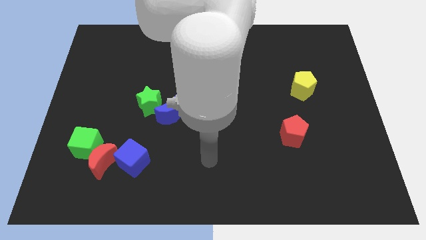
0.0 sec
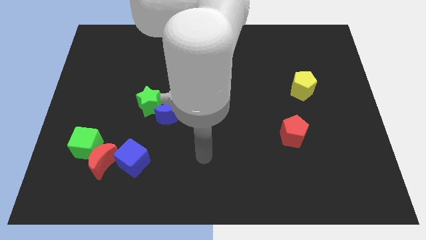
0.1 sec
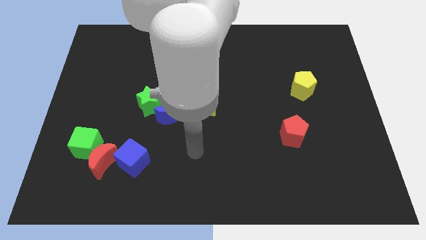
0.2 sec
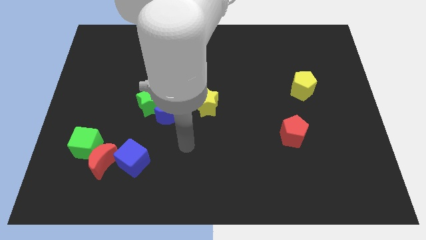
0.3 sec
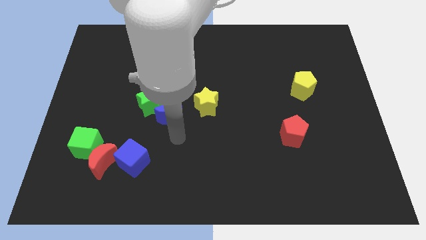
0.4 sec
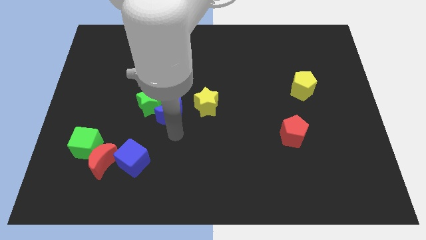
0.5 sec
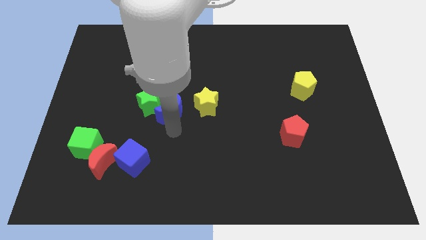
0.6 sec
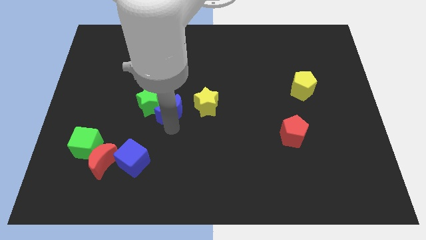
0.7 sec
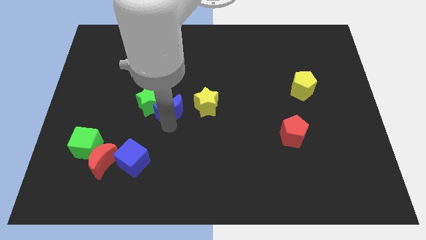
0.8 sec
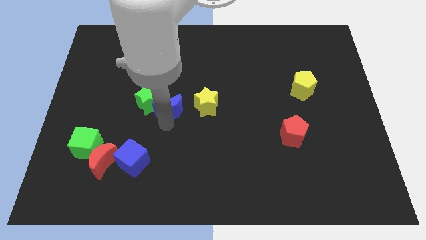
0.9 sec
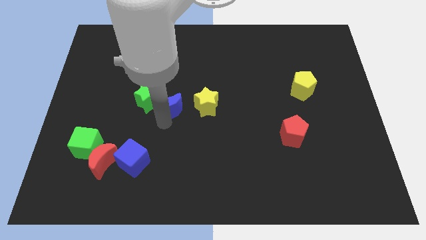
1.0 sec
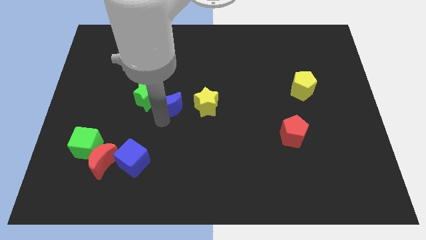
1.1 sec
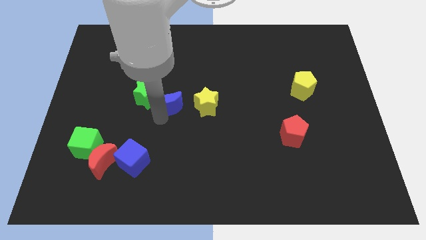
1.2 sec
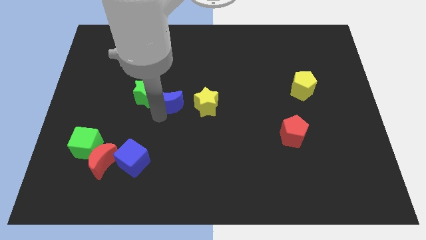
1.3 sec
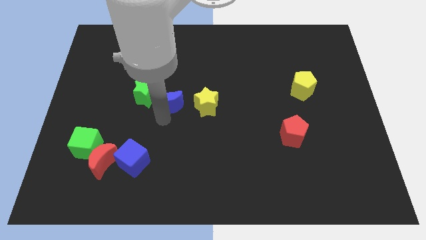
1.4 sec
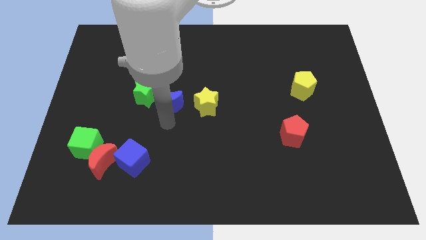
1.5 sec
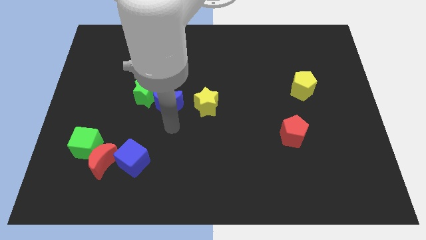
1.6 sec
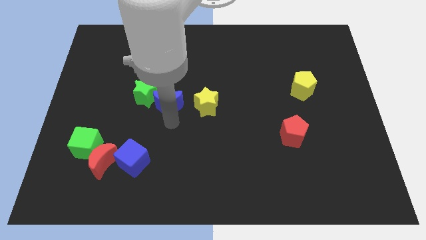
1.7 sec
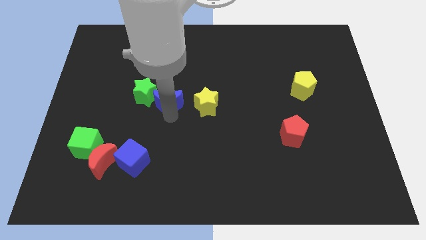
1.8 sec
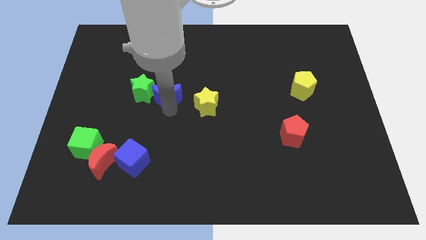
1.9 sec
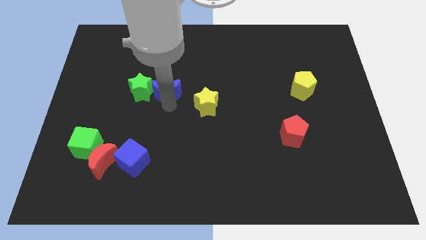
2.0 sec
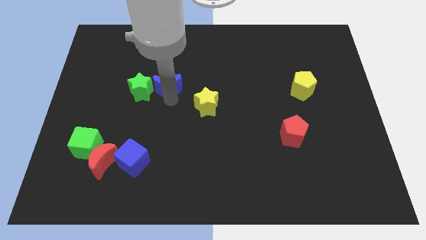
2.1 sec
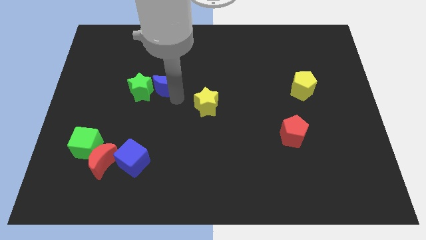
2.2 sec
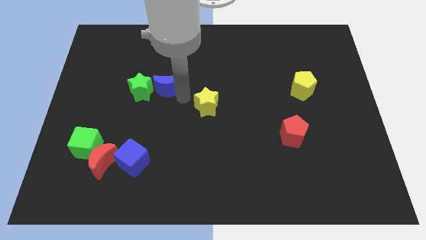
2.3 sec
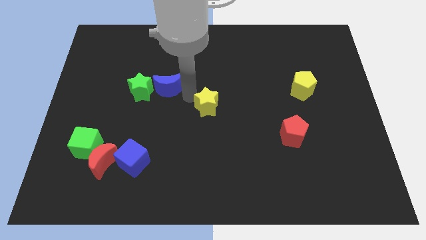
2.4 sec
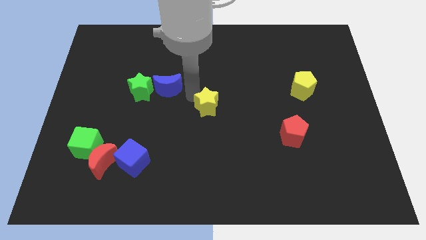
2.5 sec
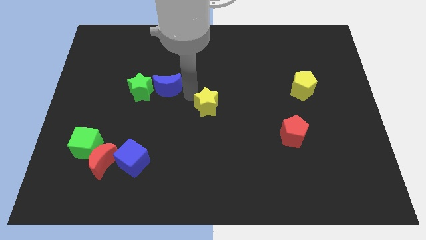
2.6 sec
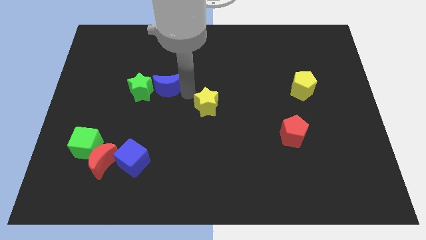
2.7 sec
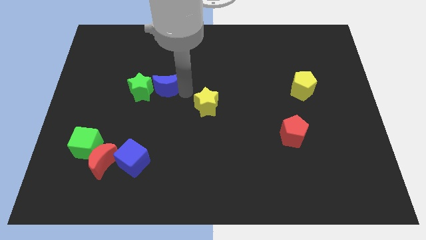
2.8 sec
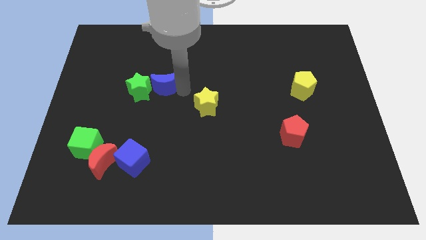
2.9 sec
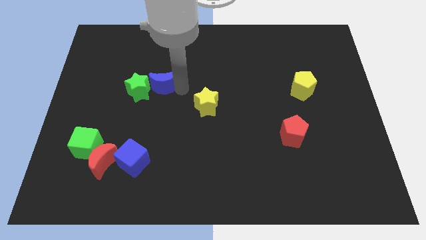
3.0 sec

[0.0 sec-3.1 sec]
move the blue moon a bit upwards and then left

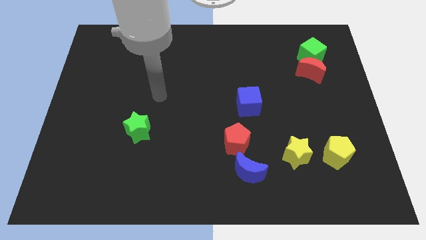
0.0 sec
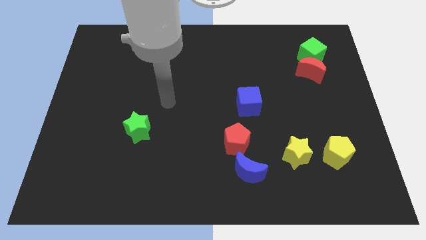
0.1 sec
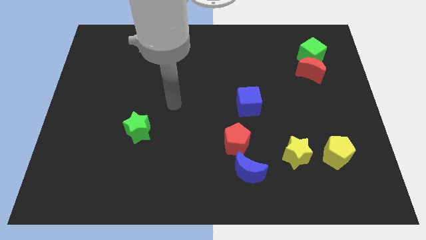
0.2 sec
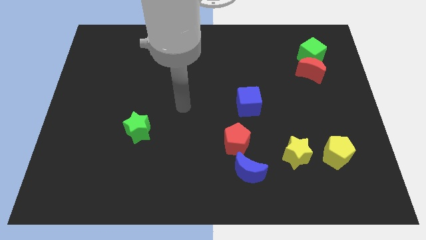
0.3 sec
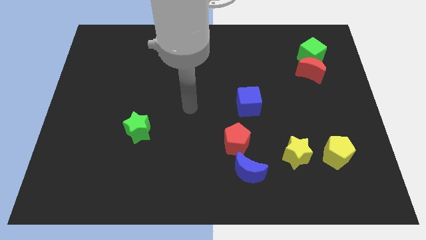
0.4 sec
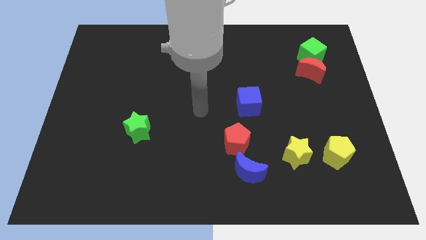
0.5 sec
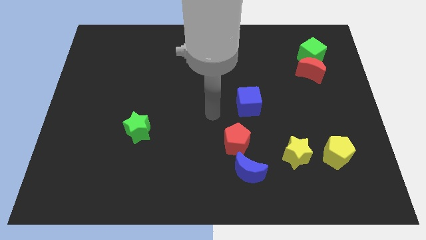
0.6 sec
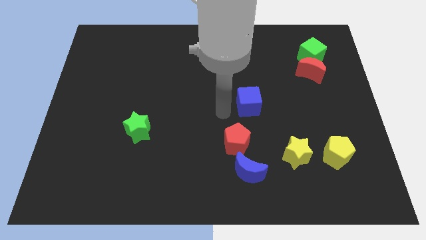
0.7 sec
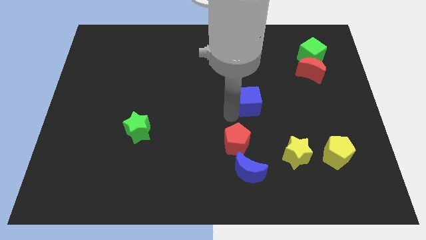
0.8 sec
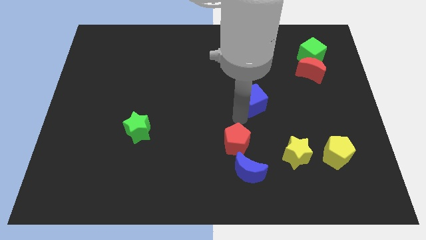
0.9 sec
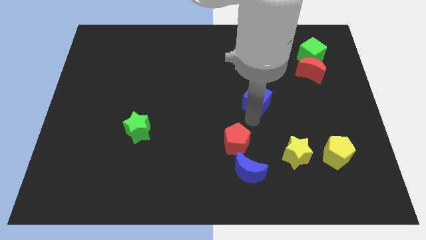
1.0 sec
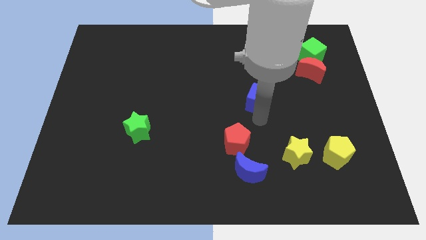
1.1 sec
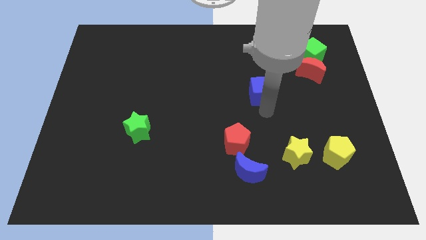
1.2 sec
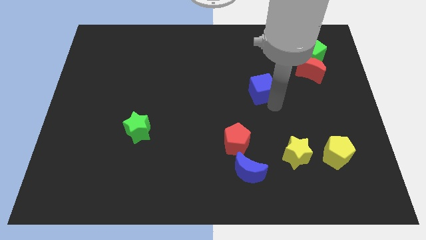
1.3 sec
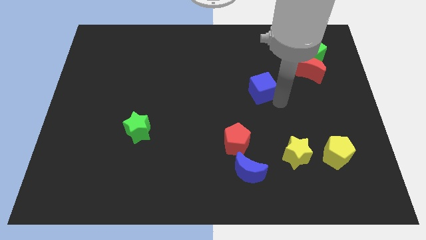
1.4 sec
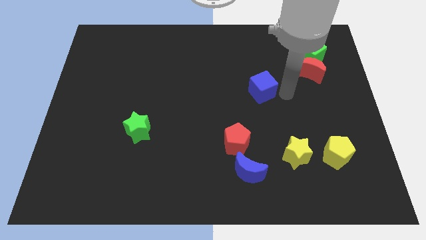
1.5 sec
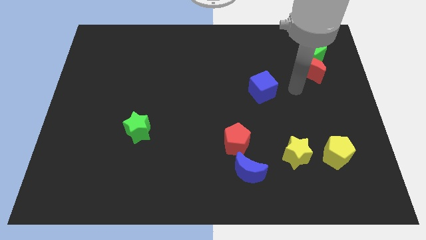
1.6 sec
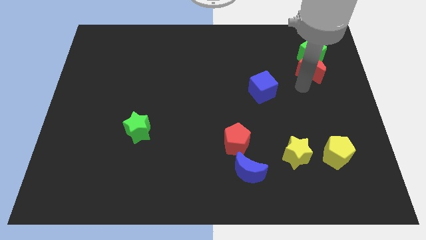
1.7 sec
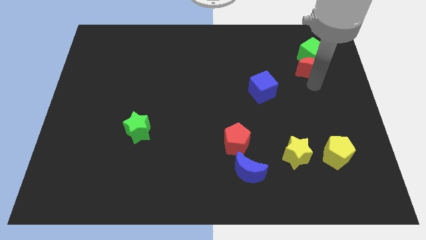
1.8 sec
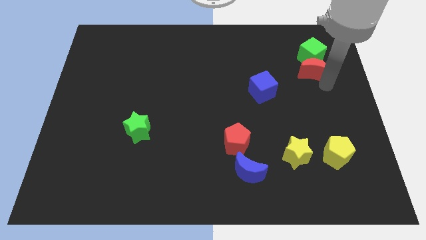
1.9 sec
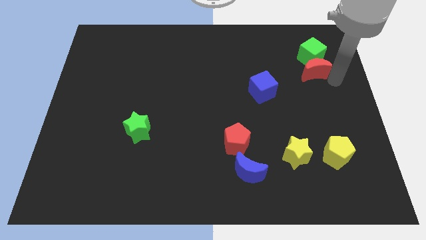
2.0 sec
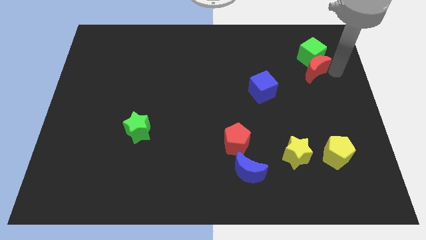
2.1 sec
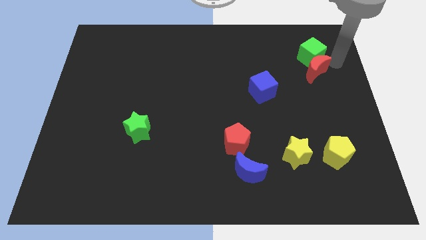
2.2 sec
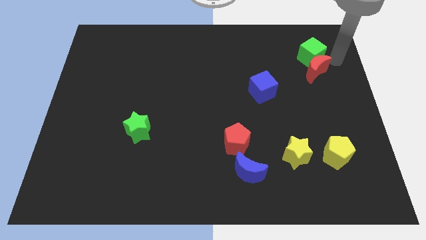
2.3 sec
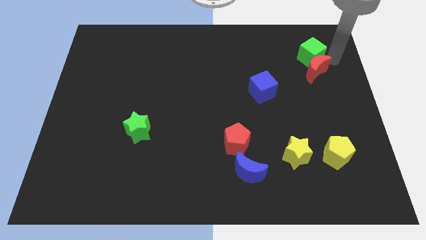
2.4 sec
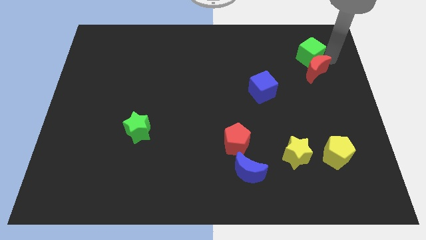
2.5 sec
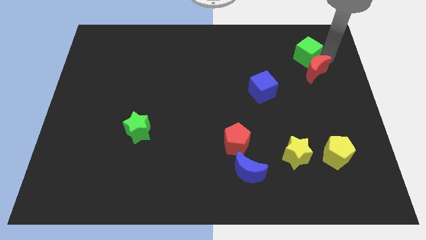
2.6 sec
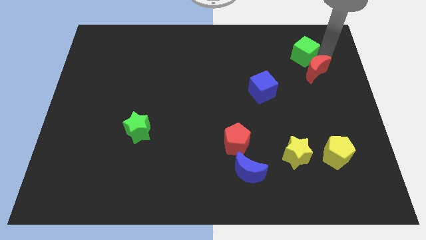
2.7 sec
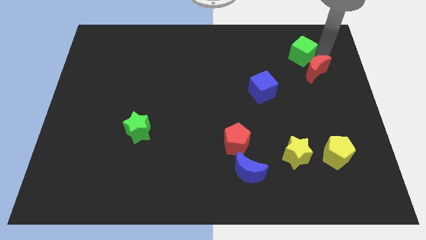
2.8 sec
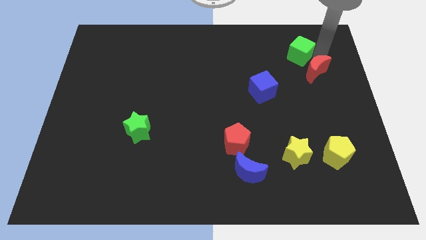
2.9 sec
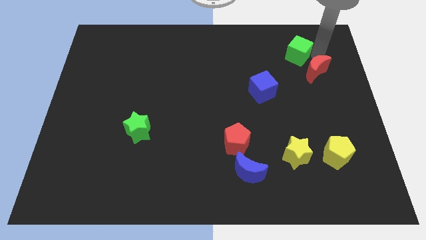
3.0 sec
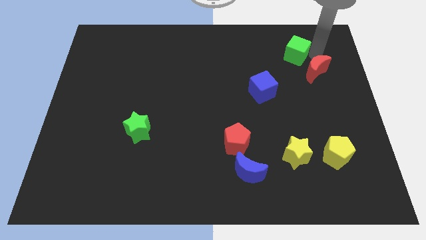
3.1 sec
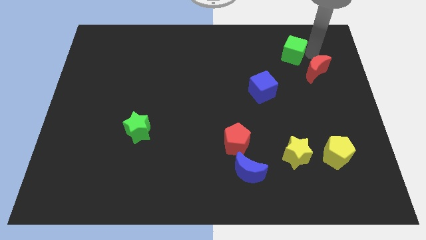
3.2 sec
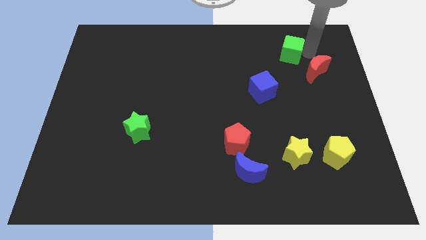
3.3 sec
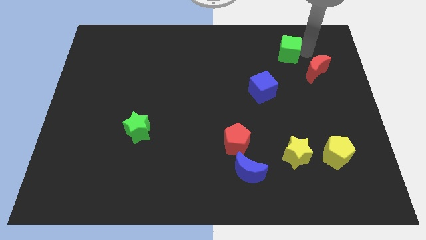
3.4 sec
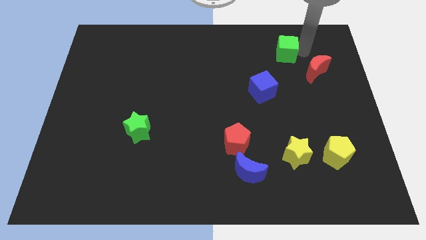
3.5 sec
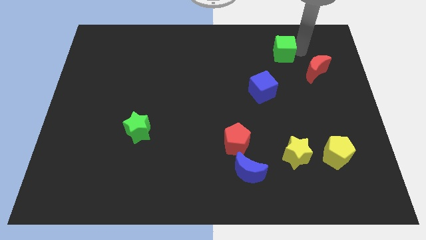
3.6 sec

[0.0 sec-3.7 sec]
move the green cube slightly left

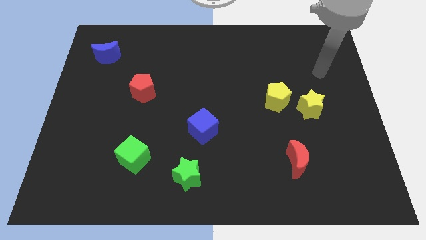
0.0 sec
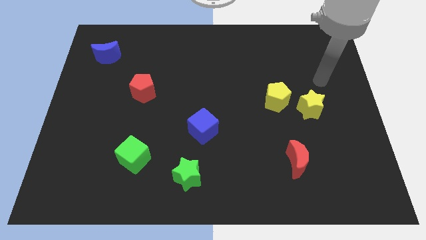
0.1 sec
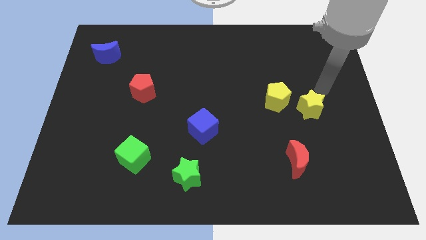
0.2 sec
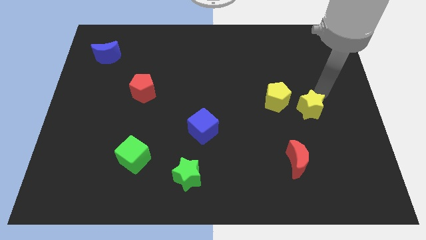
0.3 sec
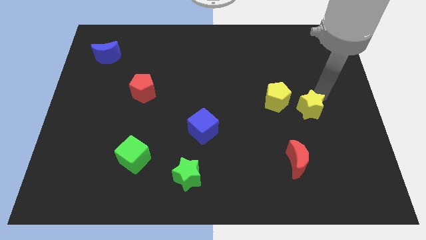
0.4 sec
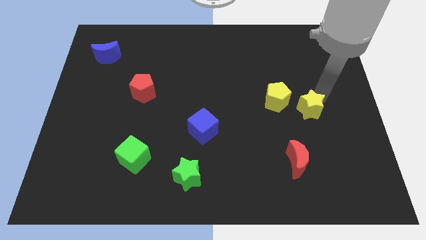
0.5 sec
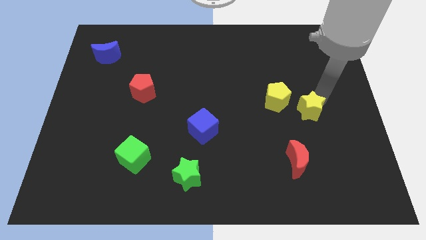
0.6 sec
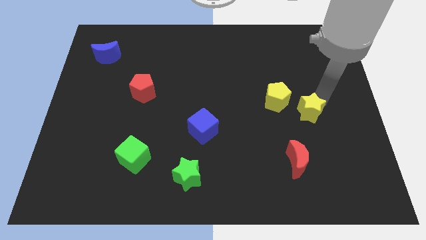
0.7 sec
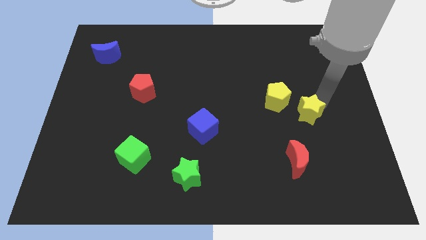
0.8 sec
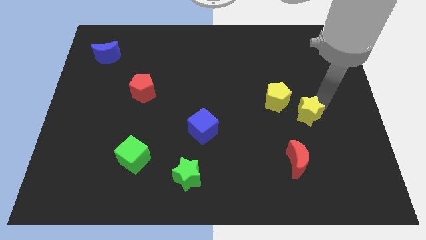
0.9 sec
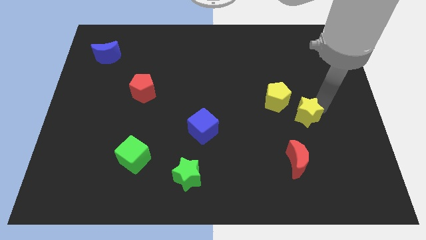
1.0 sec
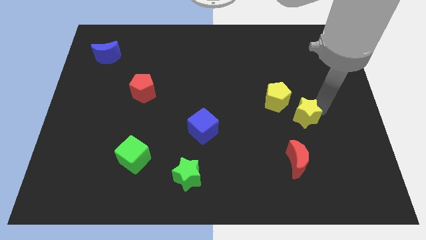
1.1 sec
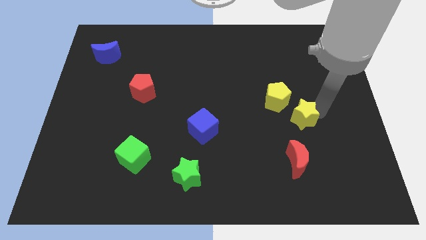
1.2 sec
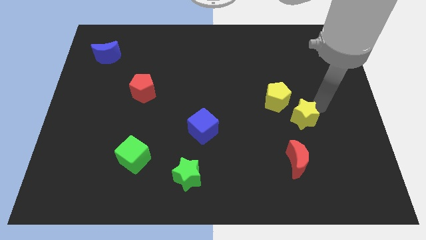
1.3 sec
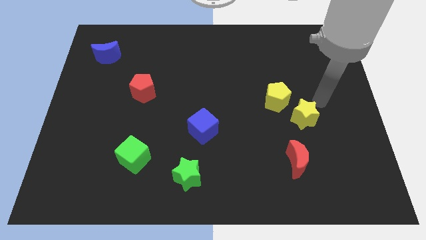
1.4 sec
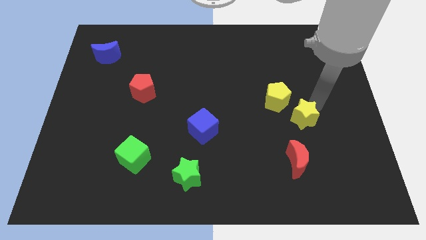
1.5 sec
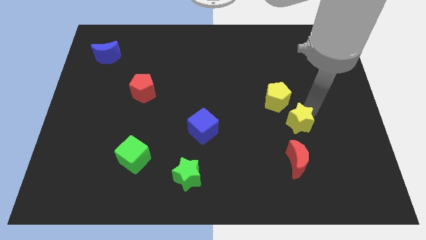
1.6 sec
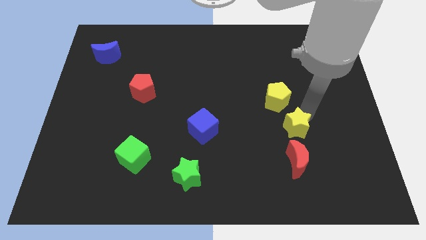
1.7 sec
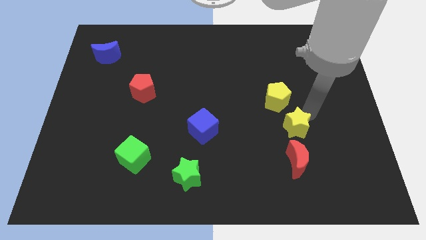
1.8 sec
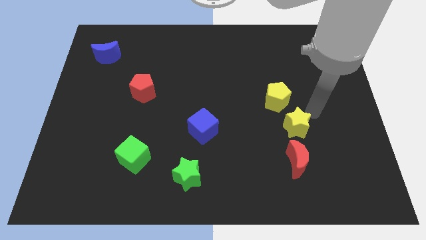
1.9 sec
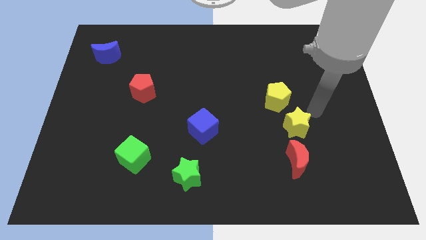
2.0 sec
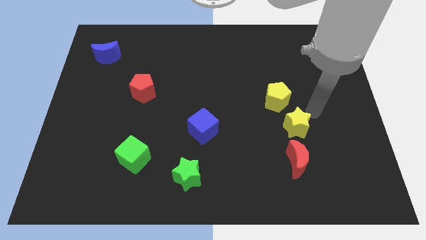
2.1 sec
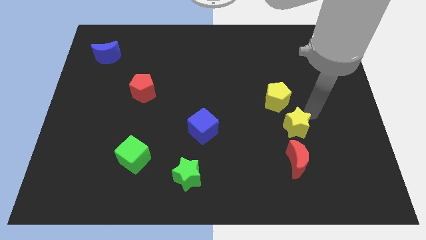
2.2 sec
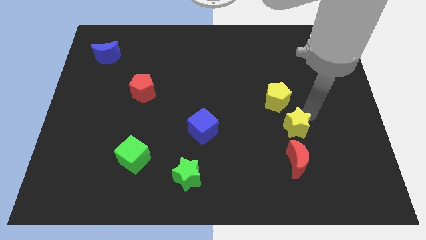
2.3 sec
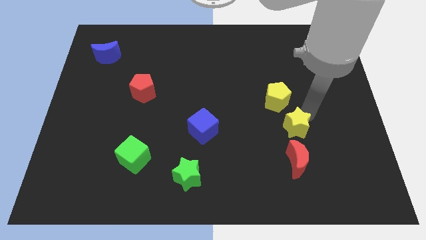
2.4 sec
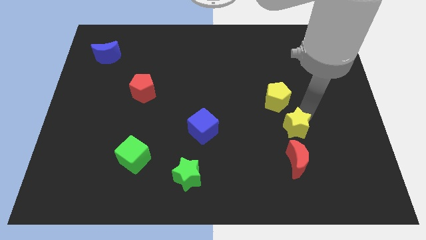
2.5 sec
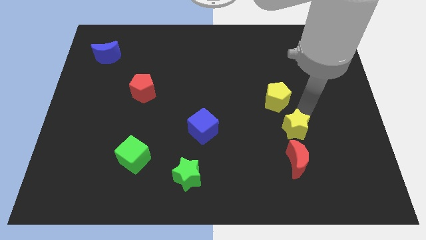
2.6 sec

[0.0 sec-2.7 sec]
push the yellow star down and left diagonally somewhat
